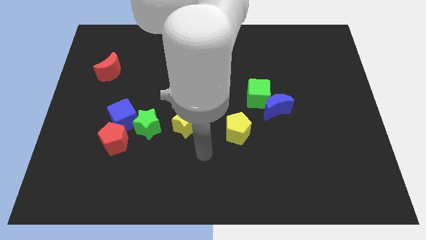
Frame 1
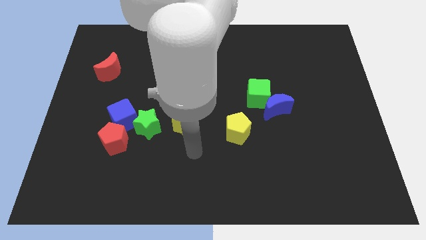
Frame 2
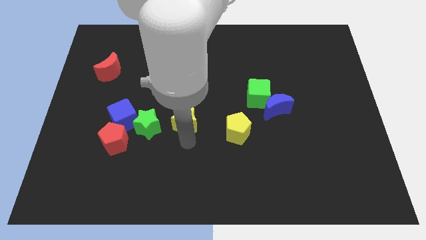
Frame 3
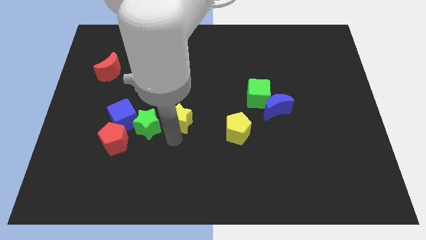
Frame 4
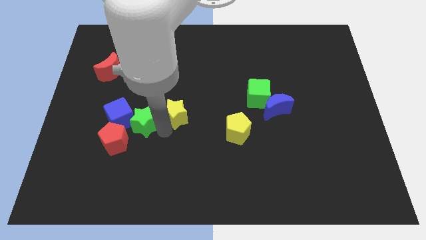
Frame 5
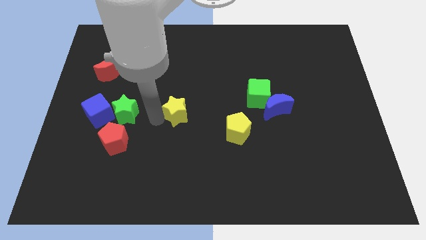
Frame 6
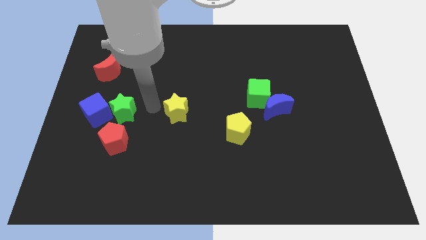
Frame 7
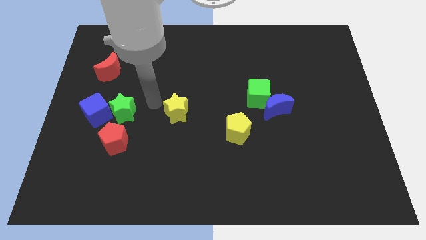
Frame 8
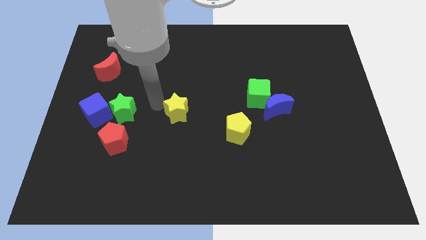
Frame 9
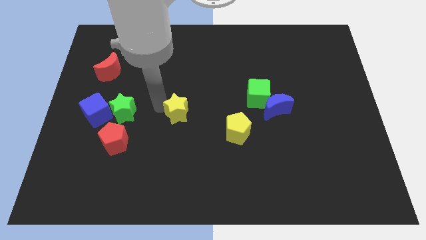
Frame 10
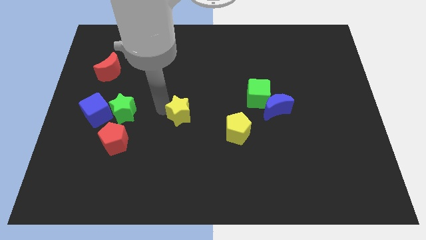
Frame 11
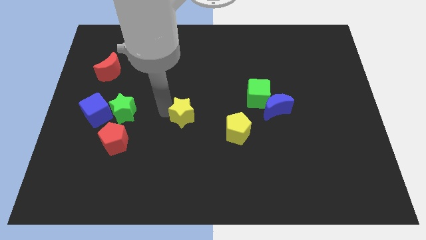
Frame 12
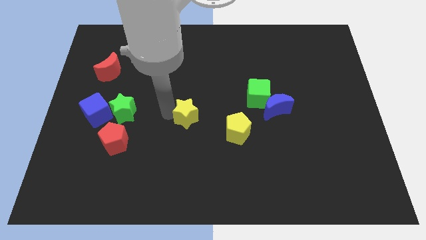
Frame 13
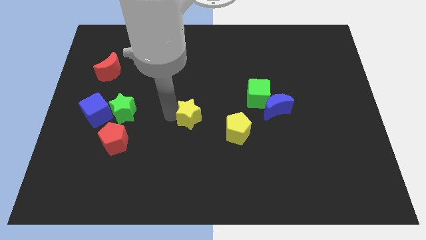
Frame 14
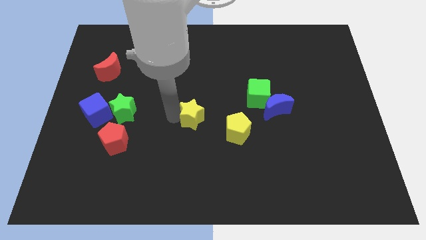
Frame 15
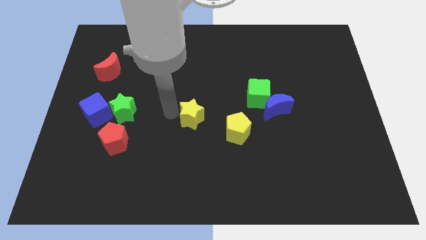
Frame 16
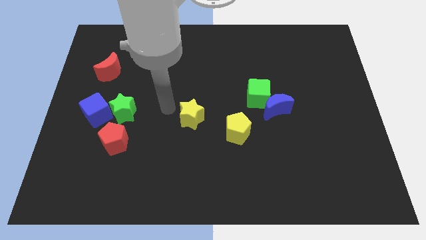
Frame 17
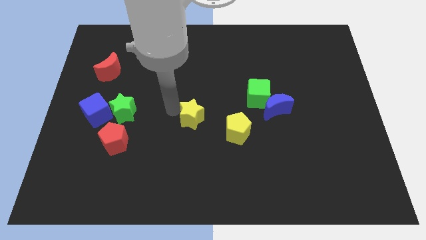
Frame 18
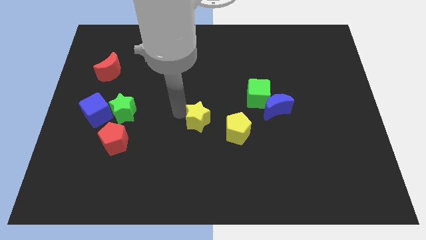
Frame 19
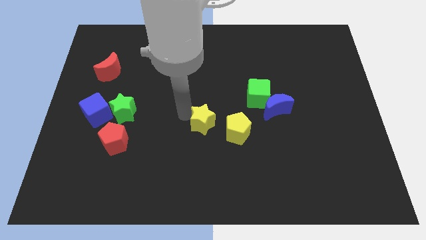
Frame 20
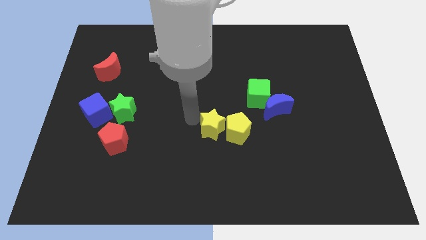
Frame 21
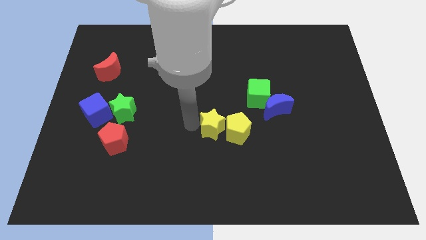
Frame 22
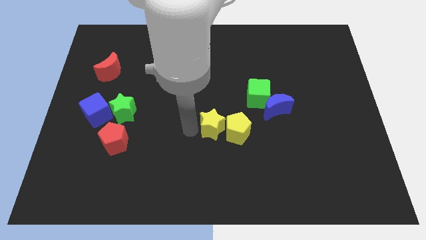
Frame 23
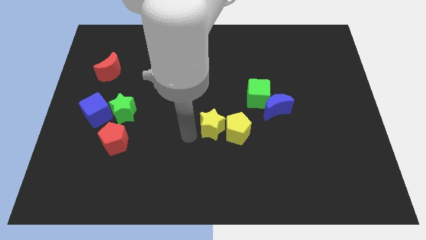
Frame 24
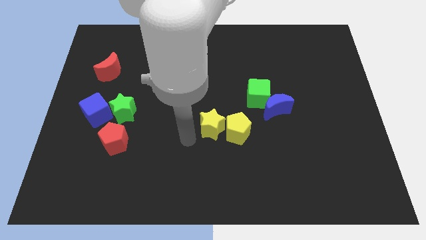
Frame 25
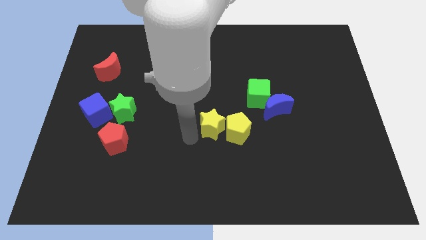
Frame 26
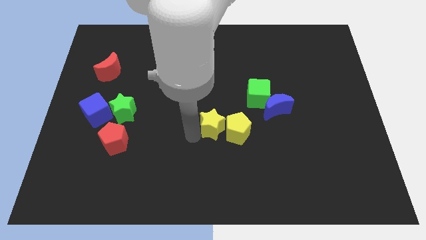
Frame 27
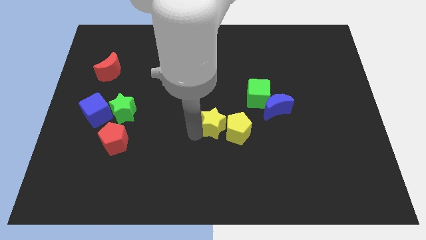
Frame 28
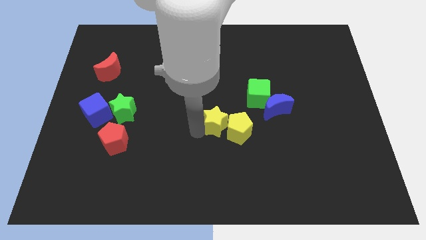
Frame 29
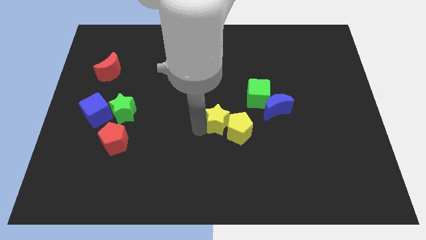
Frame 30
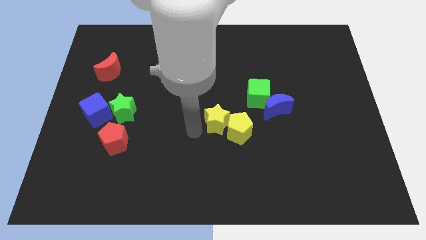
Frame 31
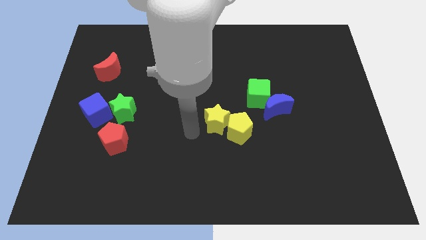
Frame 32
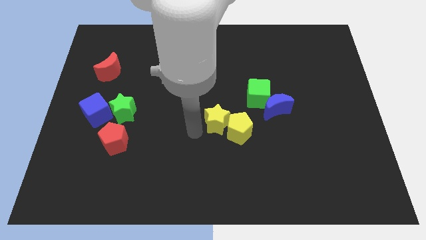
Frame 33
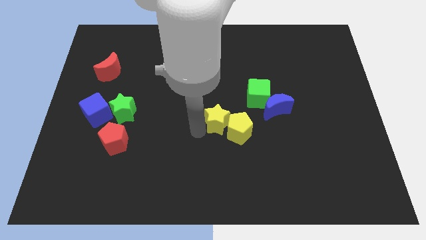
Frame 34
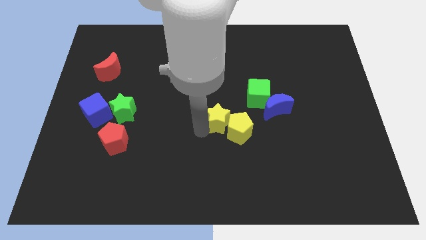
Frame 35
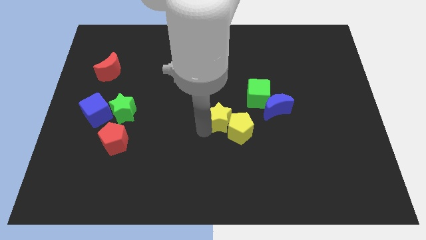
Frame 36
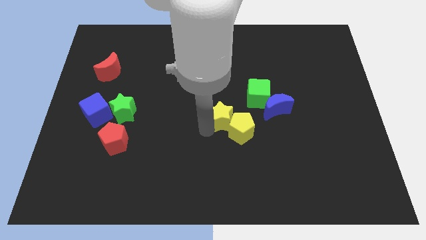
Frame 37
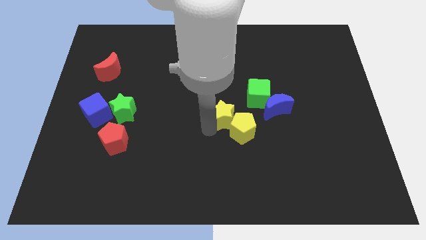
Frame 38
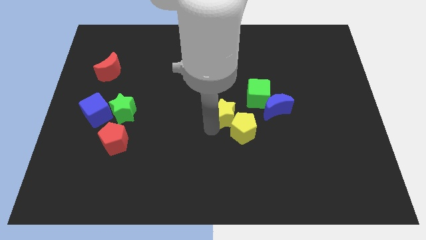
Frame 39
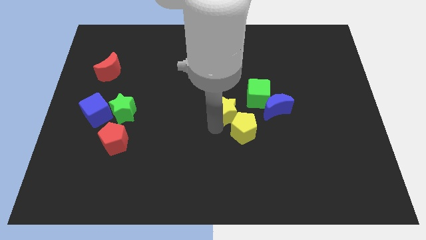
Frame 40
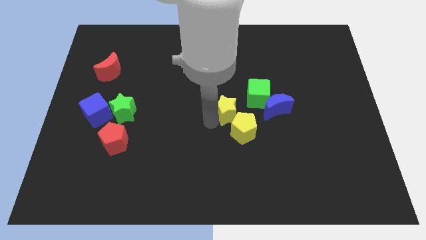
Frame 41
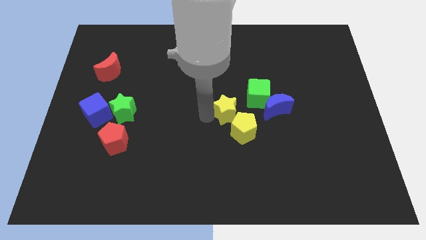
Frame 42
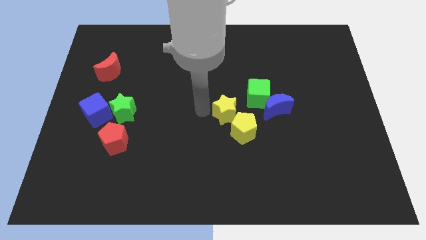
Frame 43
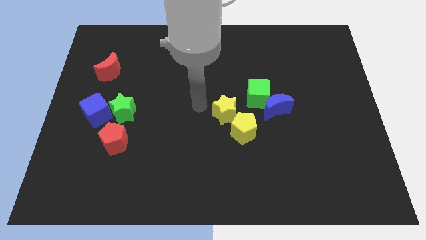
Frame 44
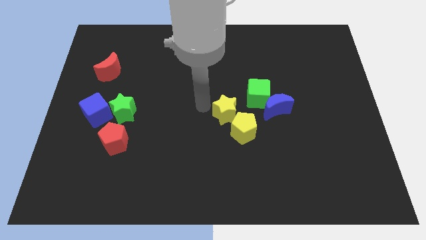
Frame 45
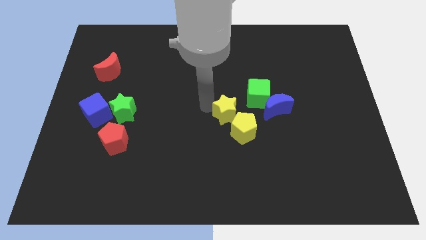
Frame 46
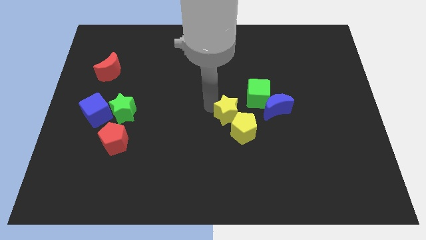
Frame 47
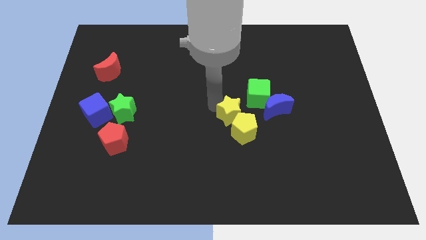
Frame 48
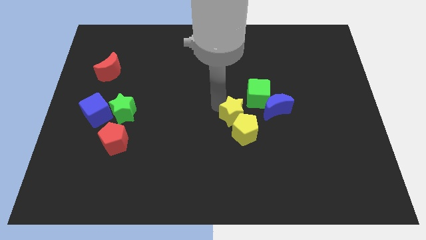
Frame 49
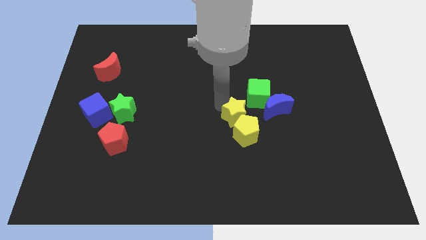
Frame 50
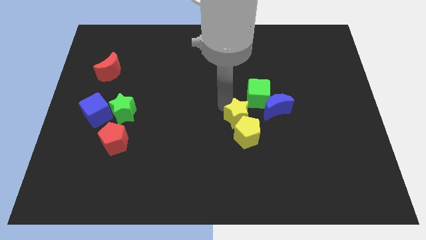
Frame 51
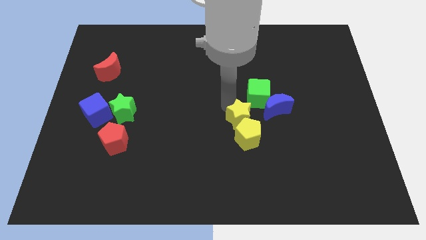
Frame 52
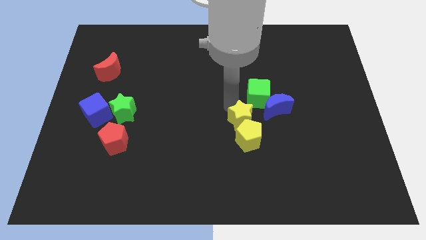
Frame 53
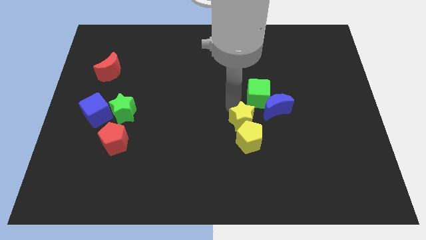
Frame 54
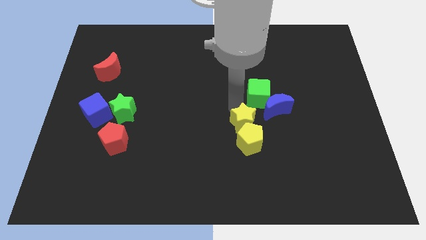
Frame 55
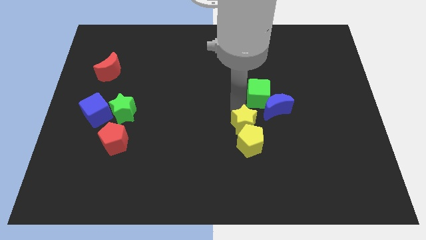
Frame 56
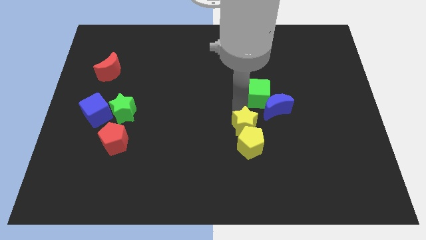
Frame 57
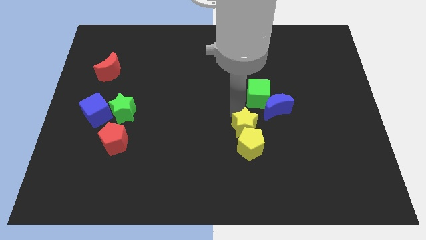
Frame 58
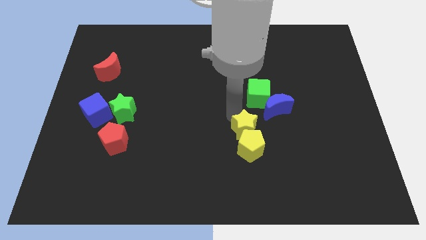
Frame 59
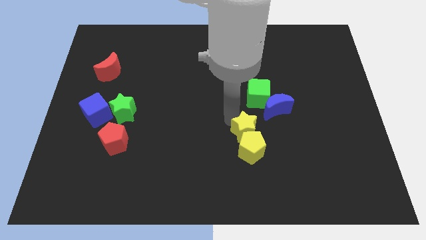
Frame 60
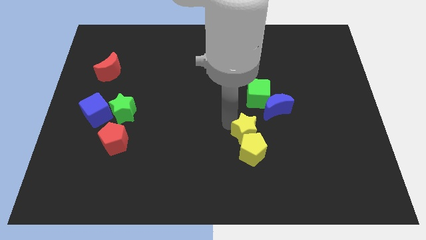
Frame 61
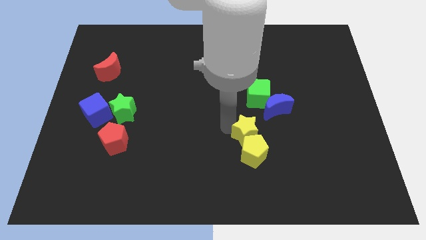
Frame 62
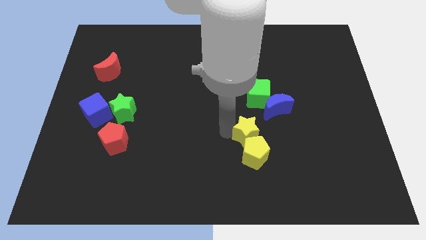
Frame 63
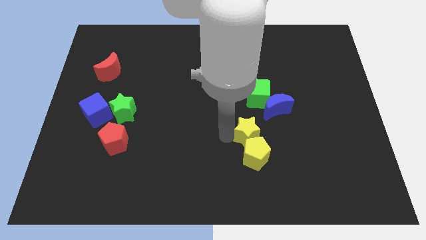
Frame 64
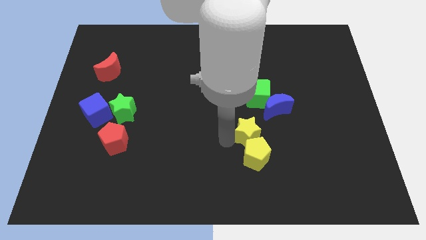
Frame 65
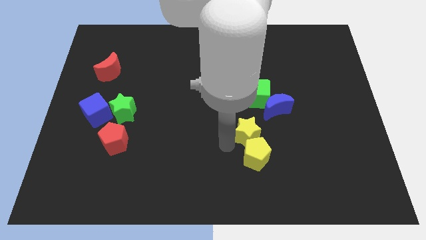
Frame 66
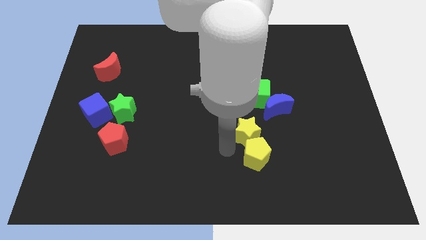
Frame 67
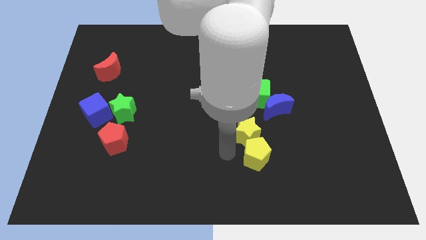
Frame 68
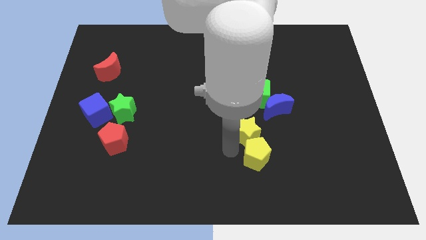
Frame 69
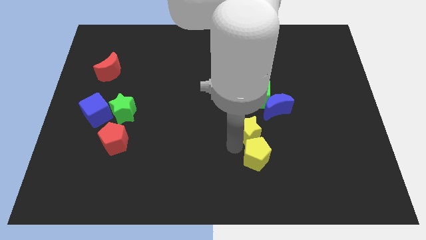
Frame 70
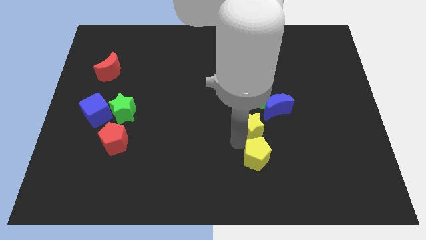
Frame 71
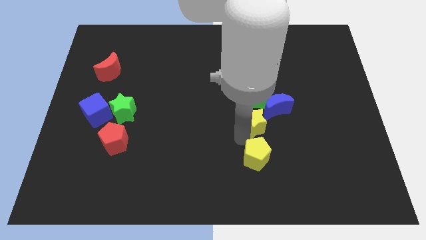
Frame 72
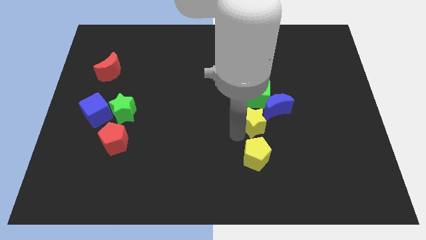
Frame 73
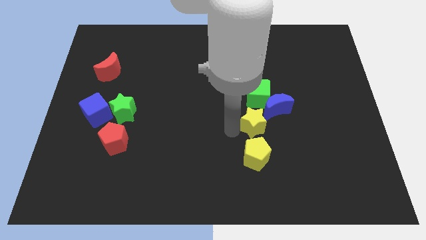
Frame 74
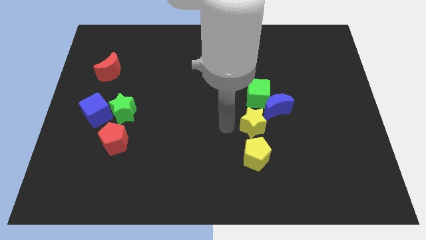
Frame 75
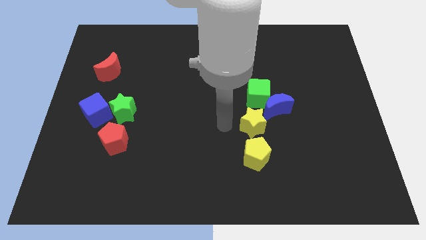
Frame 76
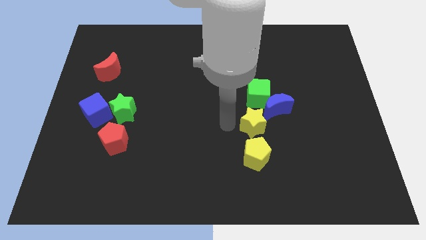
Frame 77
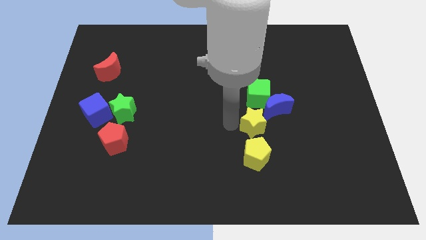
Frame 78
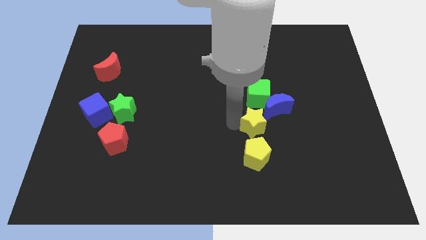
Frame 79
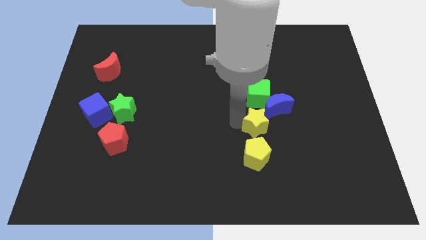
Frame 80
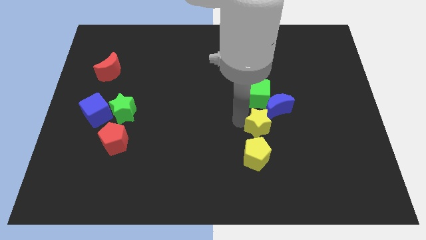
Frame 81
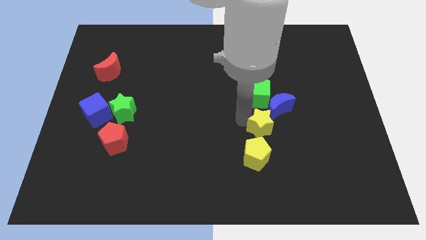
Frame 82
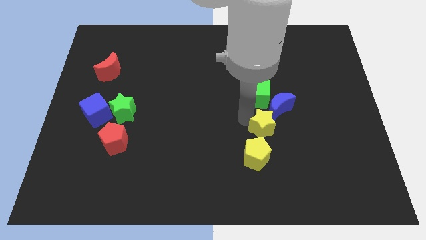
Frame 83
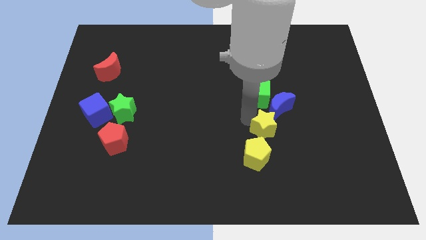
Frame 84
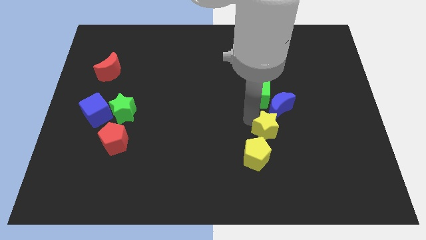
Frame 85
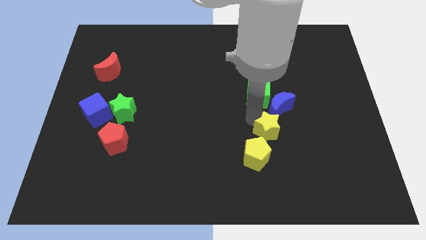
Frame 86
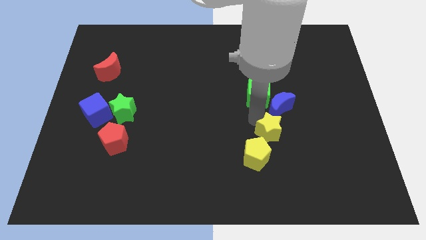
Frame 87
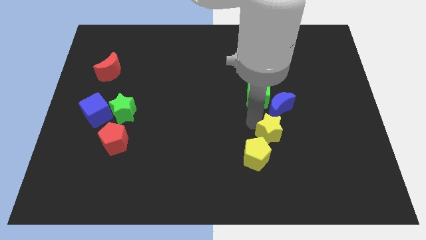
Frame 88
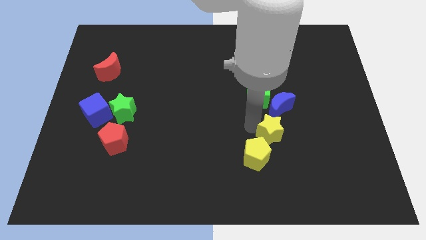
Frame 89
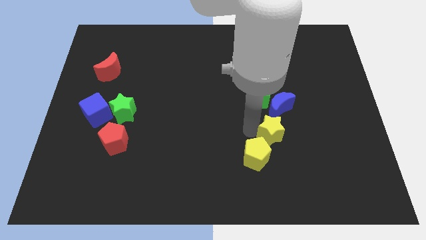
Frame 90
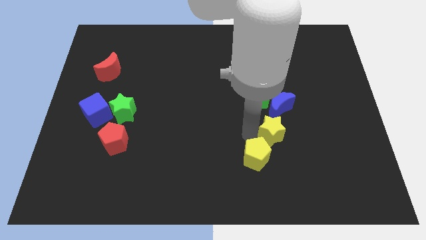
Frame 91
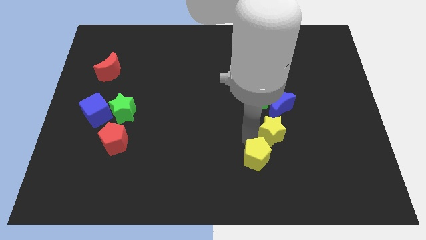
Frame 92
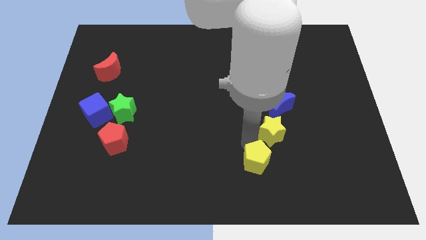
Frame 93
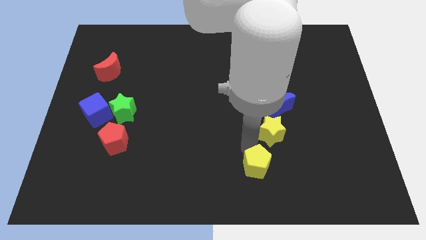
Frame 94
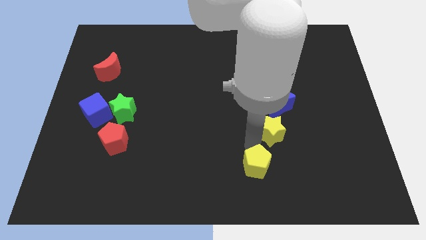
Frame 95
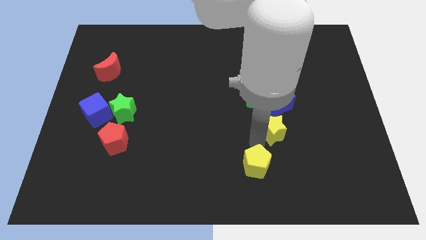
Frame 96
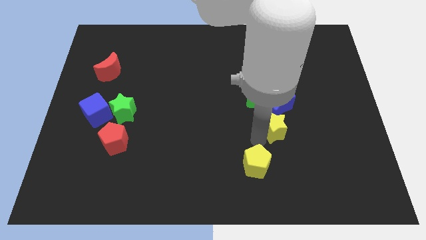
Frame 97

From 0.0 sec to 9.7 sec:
push the yellow star to the right
